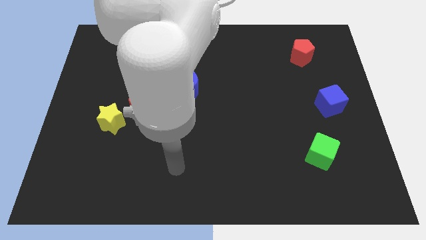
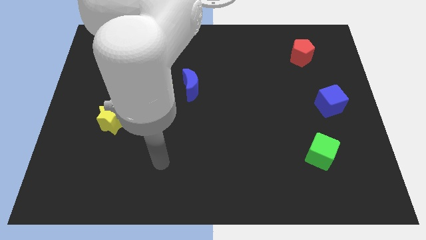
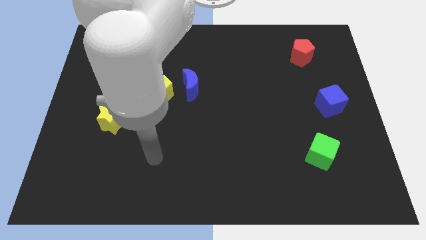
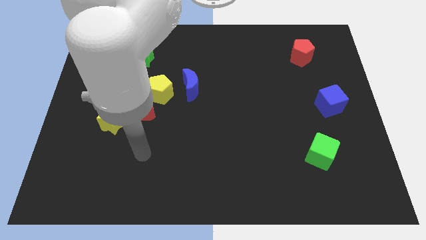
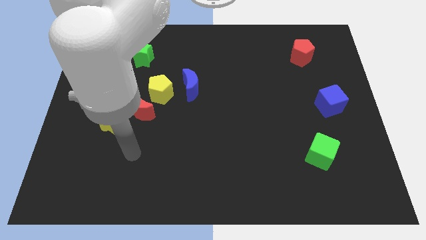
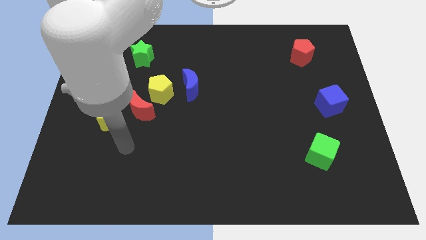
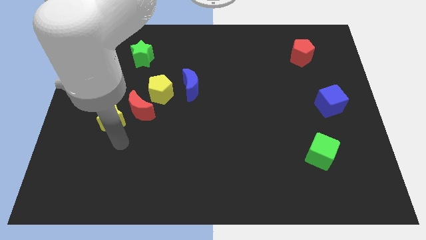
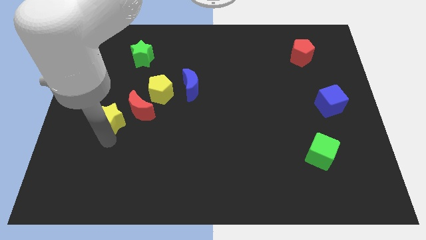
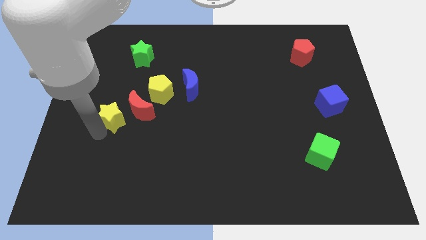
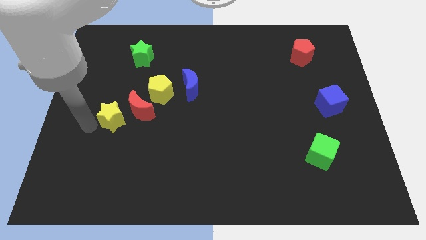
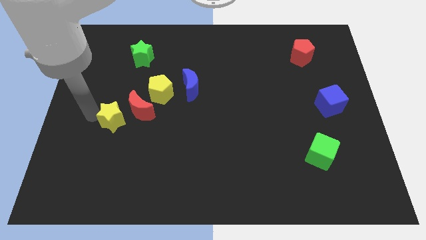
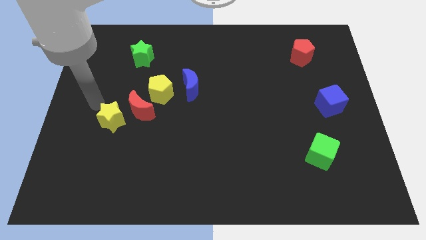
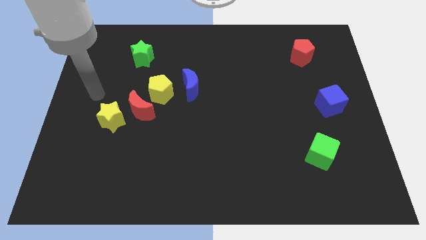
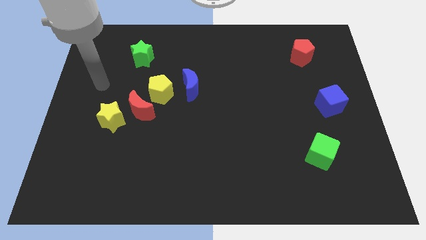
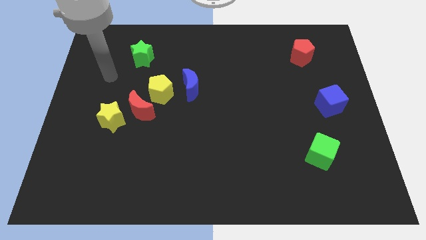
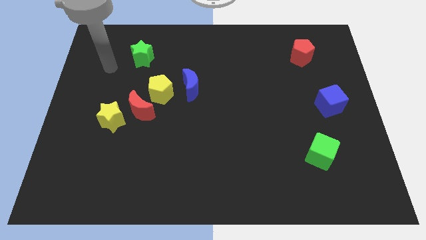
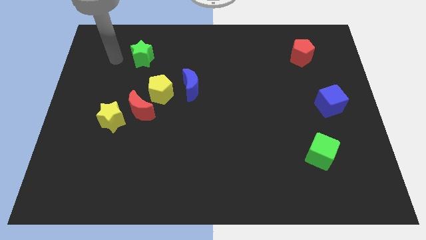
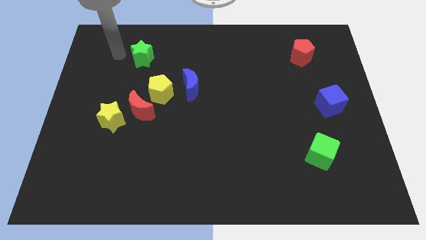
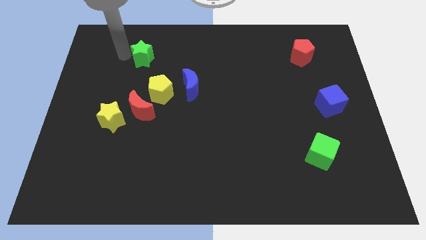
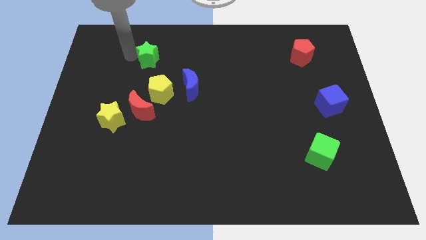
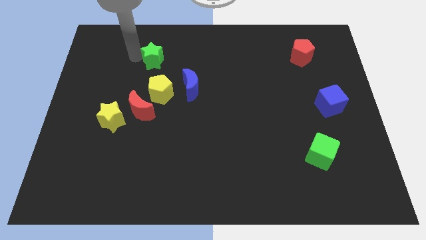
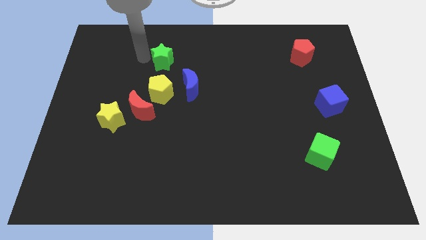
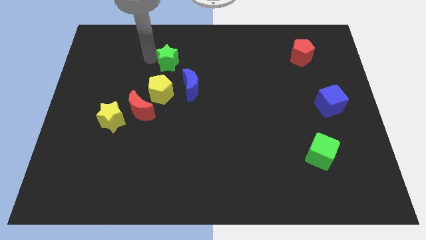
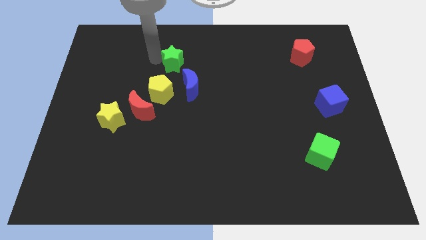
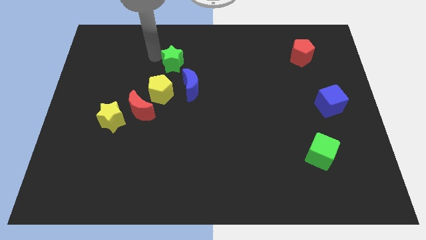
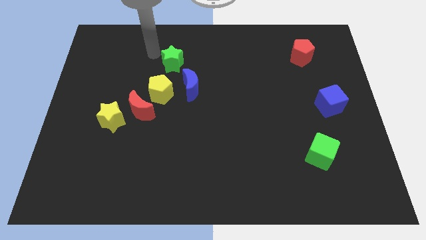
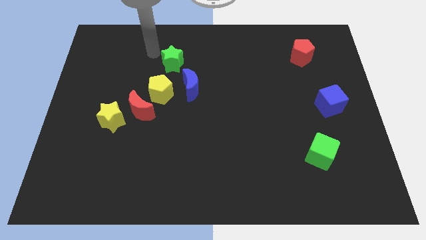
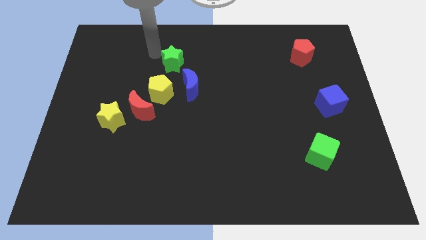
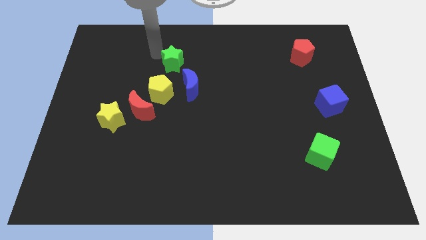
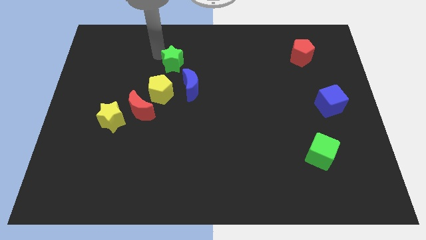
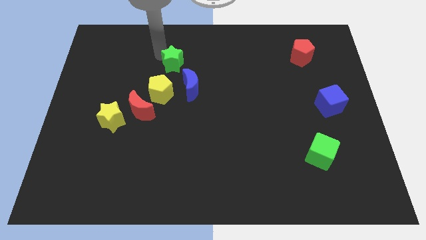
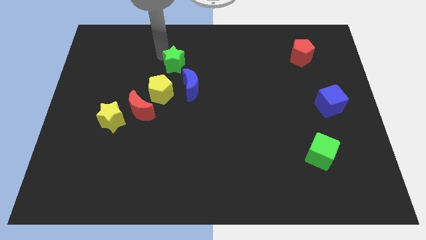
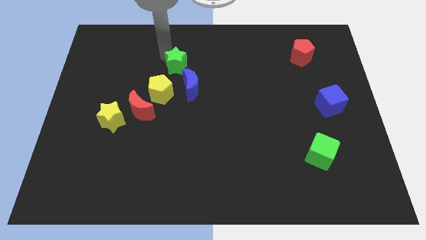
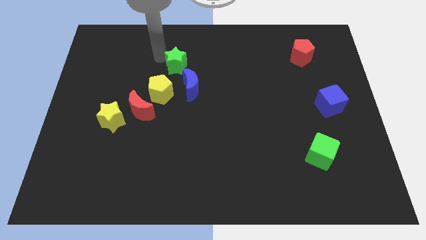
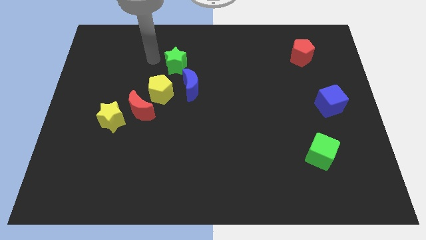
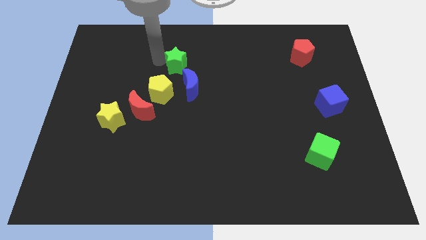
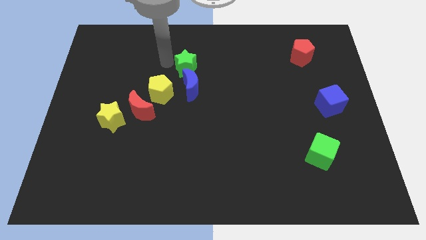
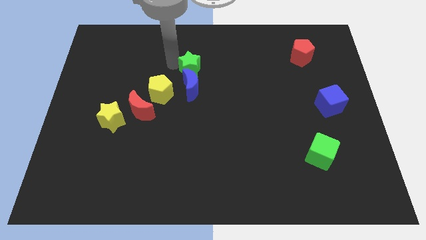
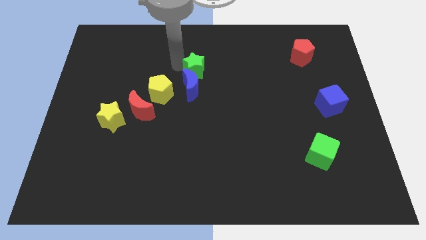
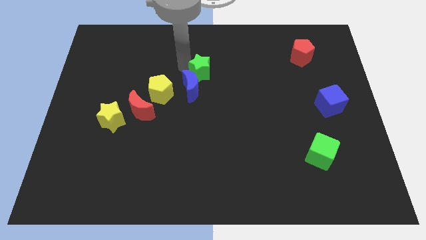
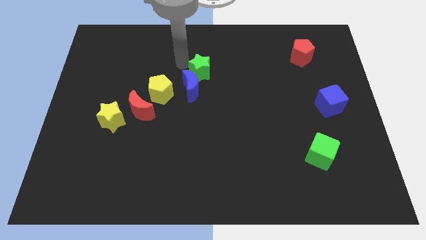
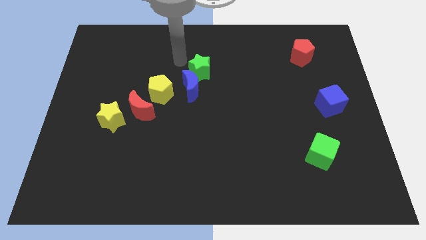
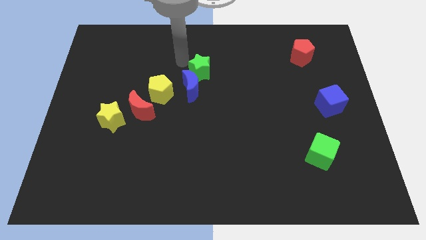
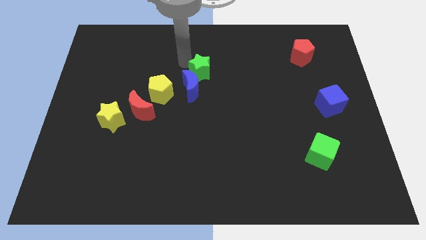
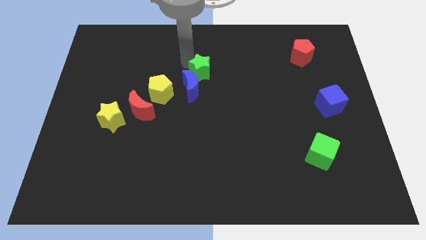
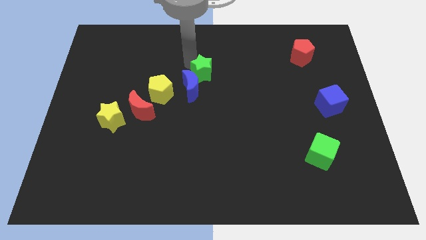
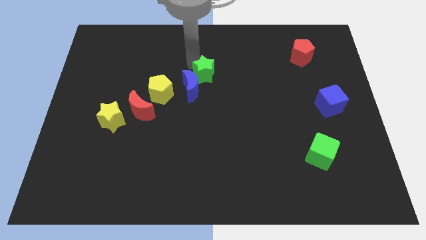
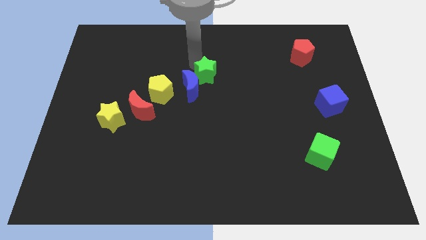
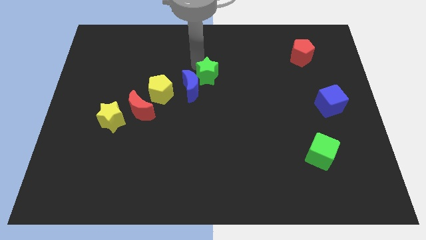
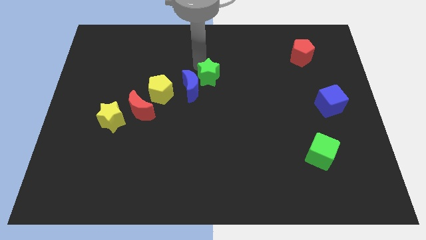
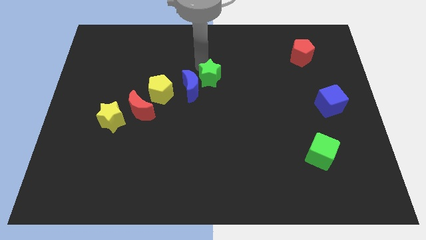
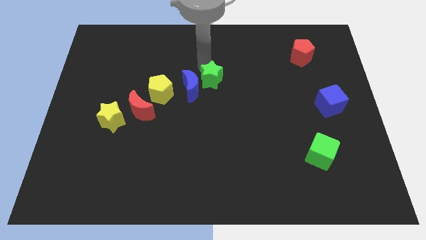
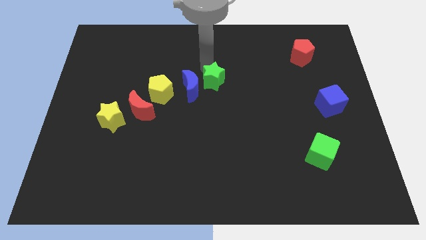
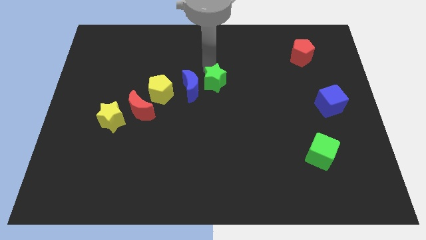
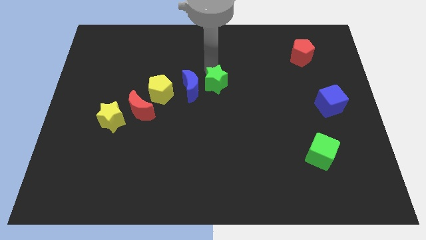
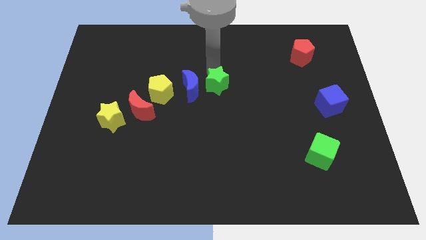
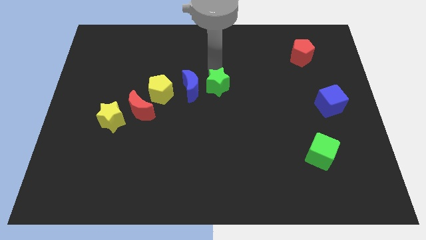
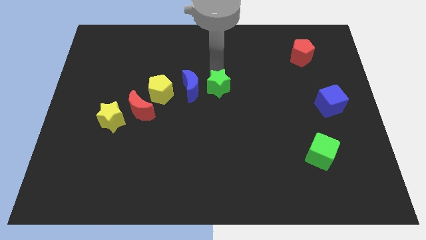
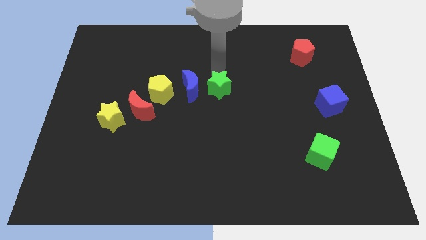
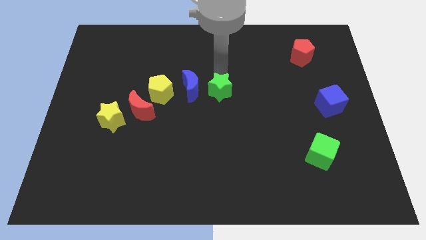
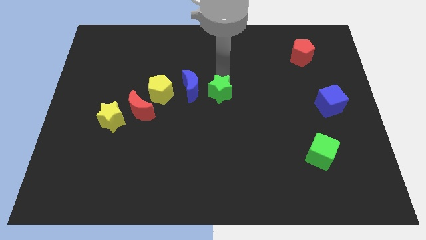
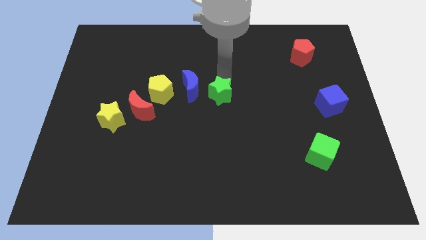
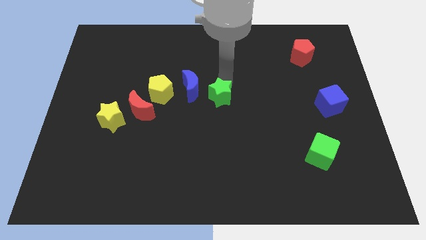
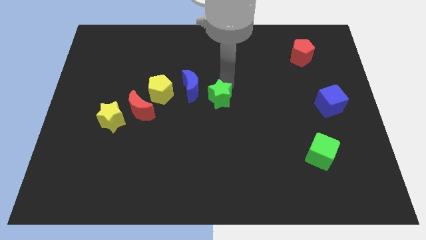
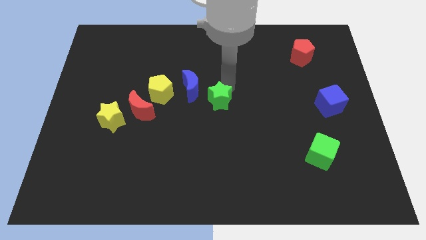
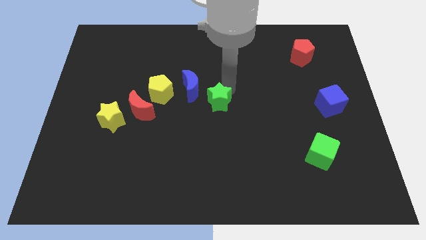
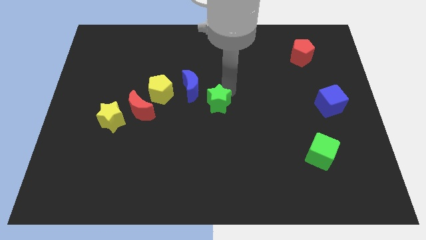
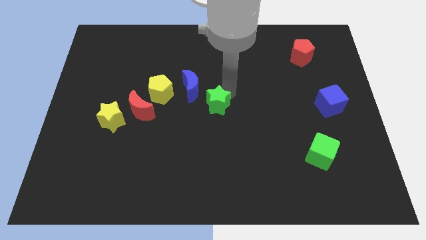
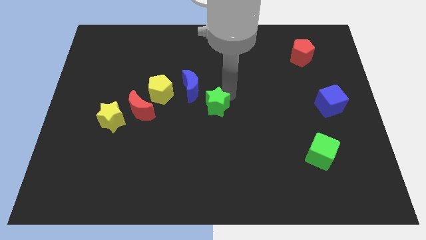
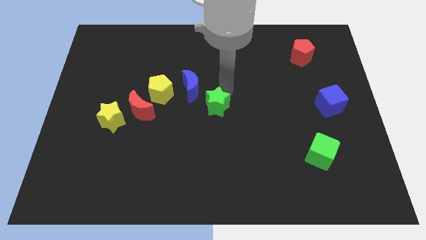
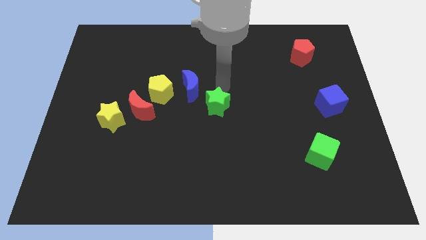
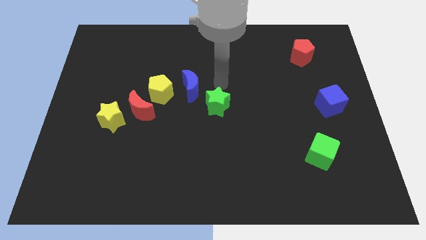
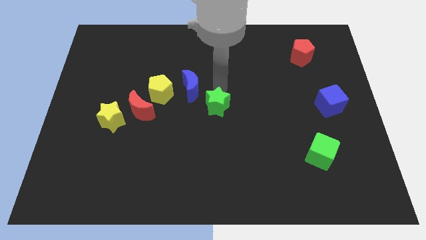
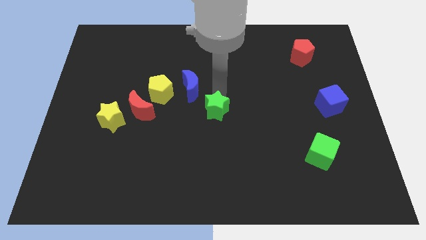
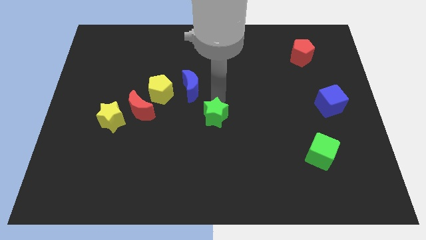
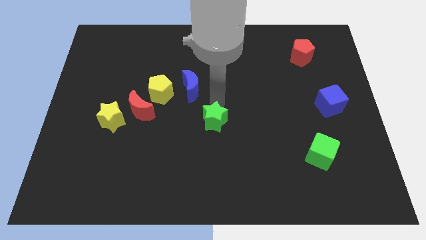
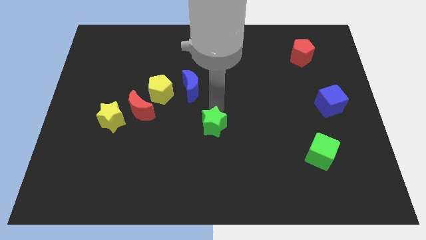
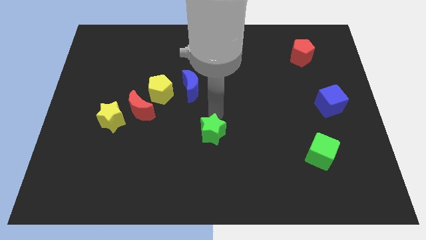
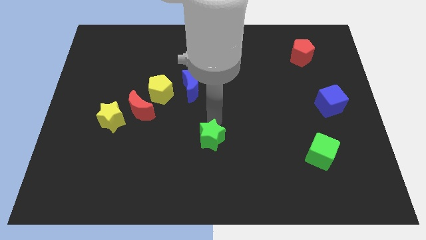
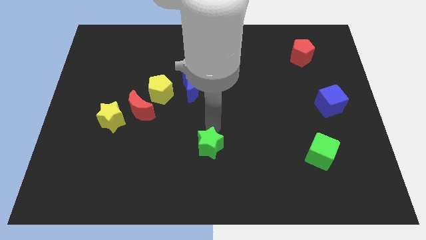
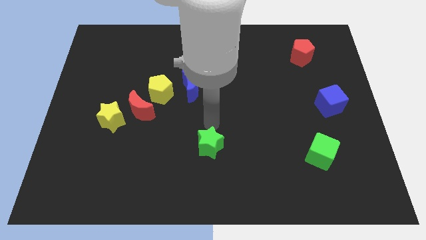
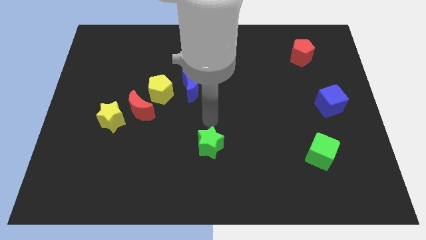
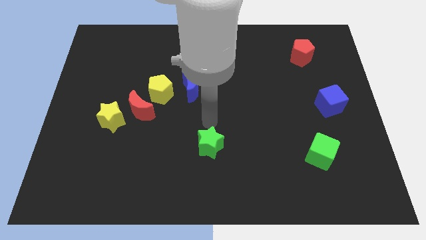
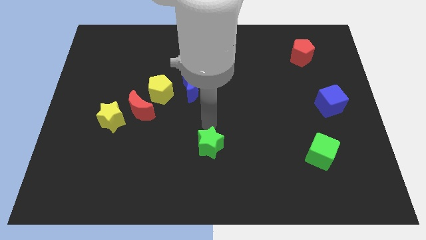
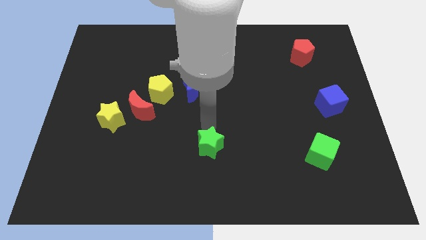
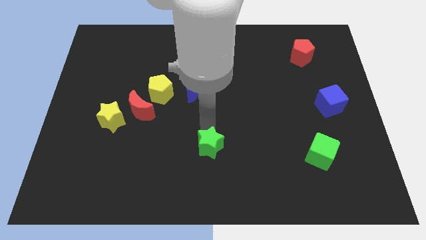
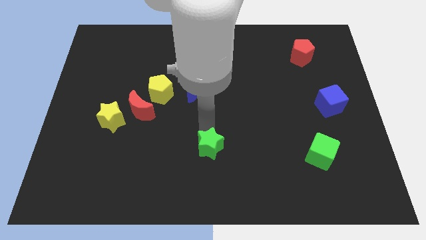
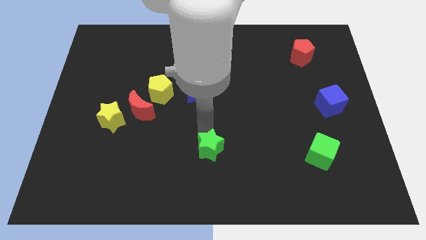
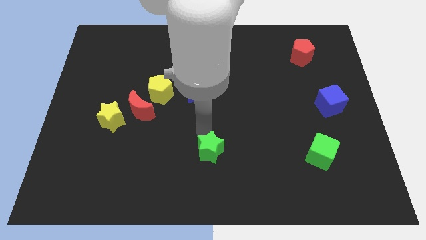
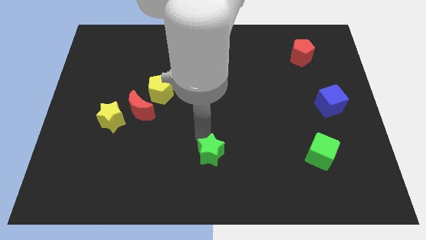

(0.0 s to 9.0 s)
move the green star to the bottom side
